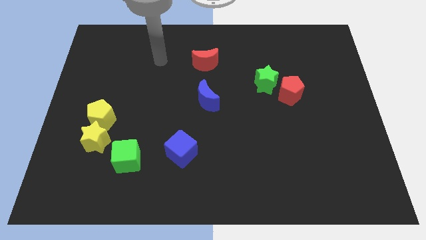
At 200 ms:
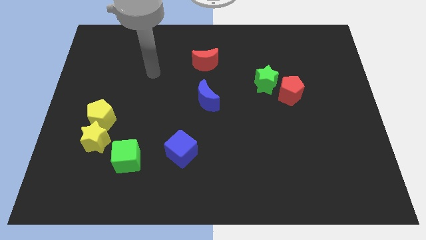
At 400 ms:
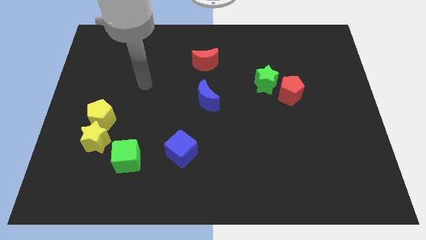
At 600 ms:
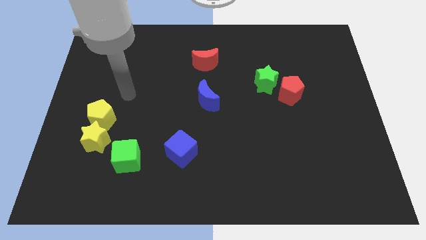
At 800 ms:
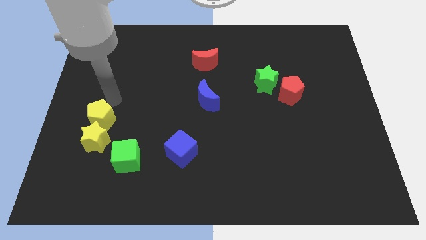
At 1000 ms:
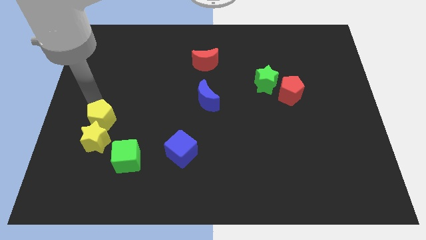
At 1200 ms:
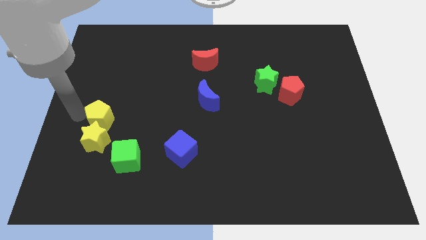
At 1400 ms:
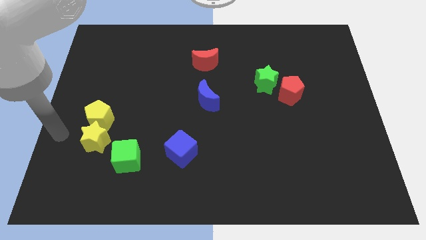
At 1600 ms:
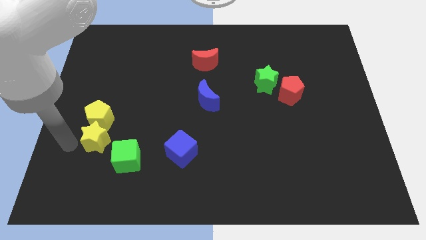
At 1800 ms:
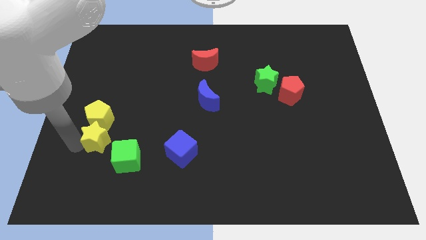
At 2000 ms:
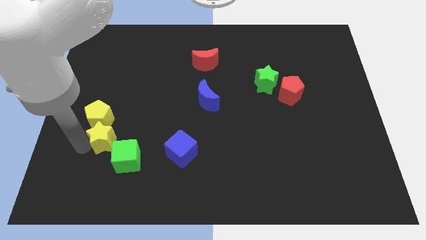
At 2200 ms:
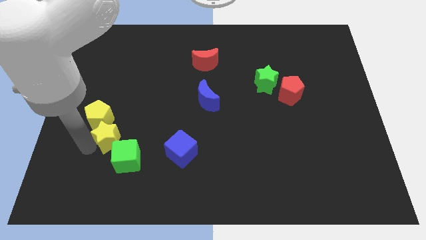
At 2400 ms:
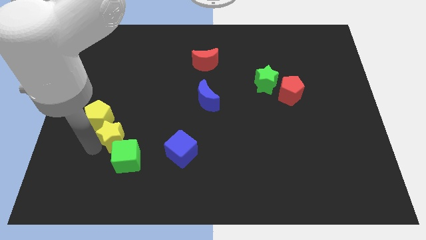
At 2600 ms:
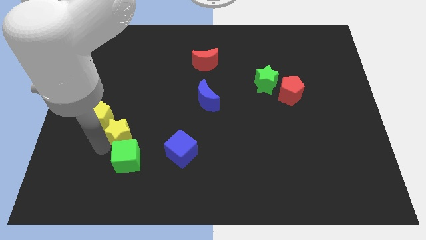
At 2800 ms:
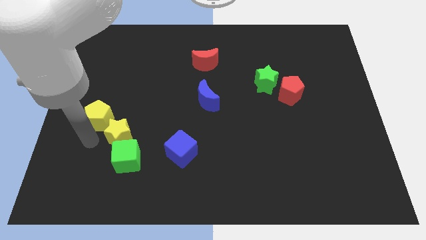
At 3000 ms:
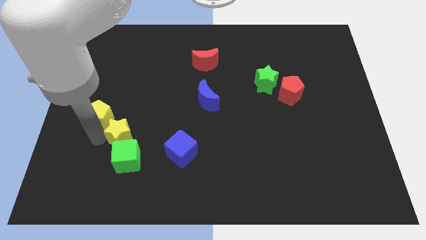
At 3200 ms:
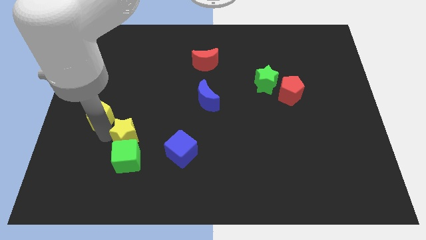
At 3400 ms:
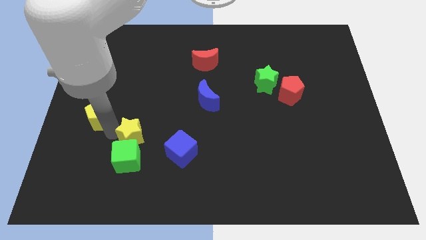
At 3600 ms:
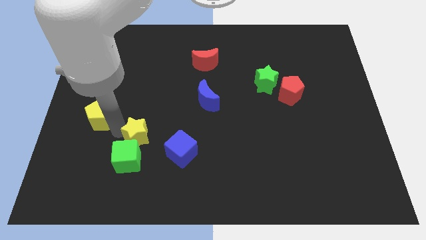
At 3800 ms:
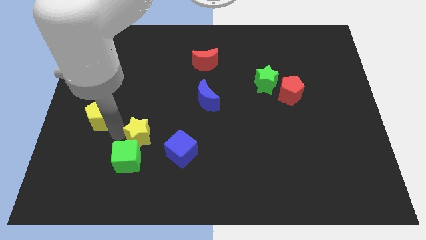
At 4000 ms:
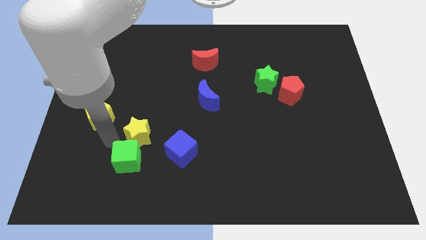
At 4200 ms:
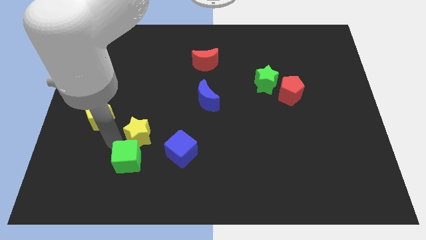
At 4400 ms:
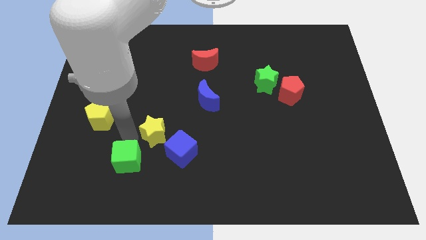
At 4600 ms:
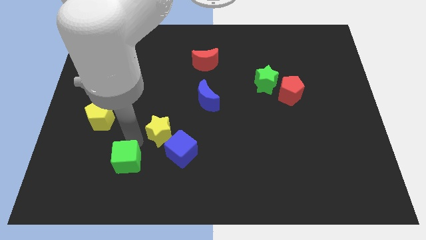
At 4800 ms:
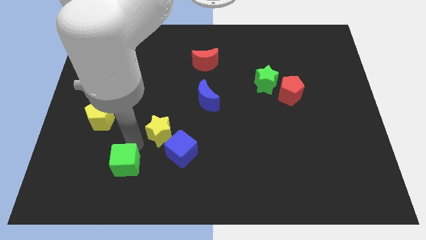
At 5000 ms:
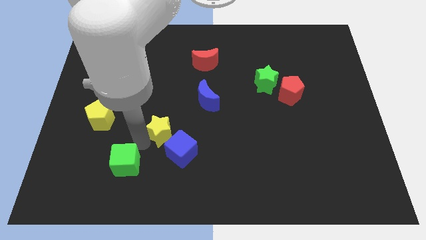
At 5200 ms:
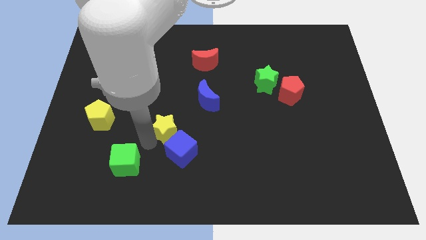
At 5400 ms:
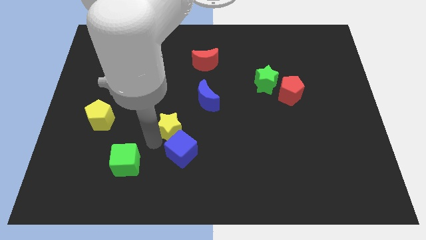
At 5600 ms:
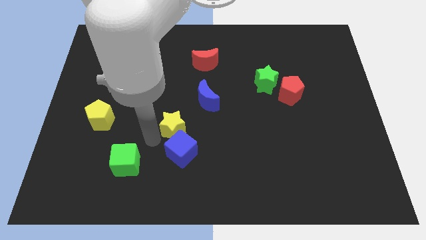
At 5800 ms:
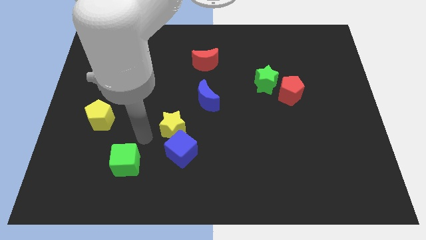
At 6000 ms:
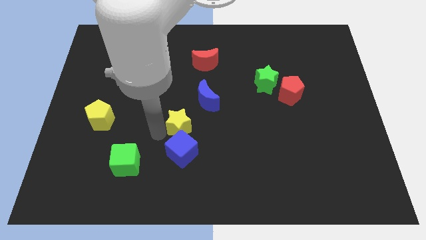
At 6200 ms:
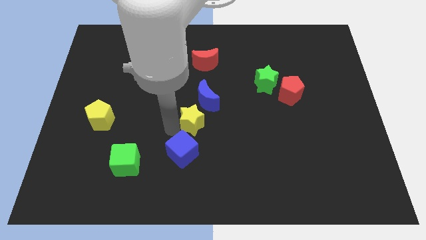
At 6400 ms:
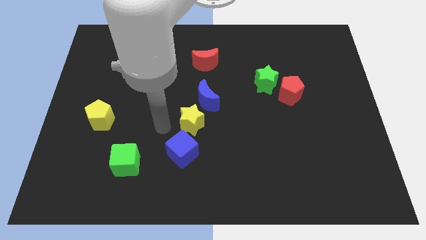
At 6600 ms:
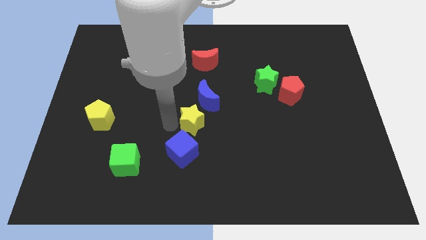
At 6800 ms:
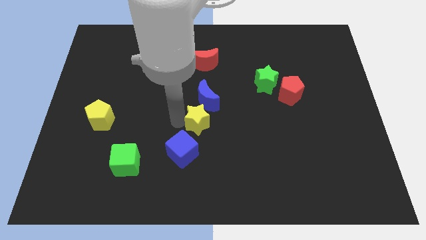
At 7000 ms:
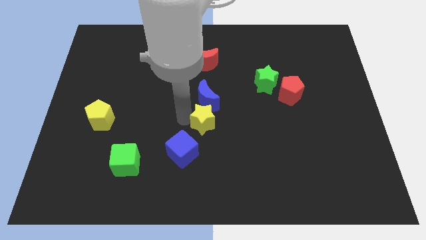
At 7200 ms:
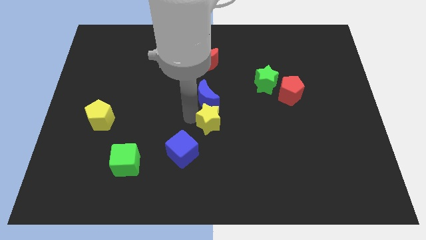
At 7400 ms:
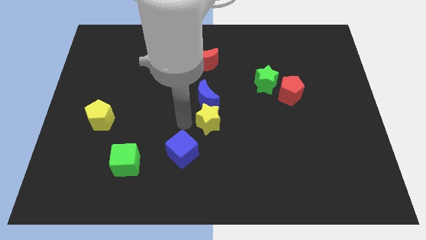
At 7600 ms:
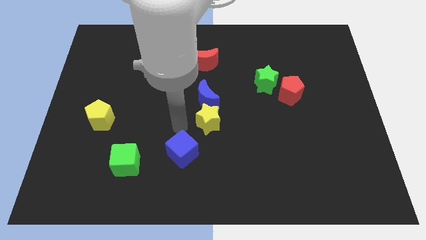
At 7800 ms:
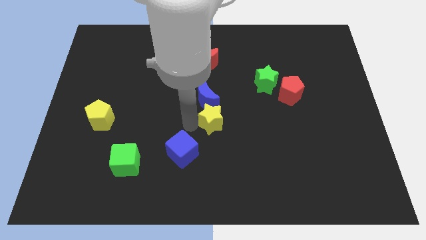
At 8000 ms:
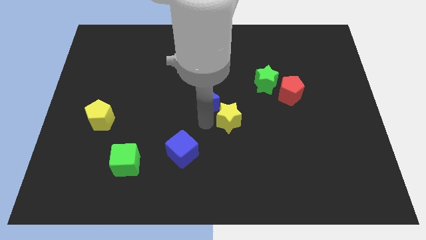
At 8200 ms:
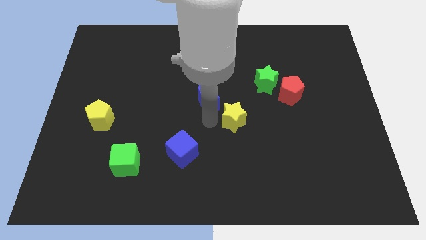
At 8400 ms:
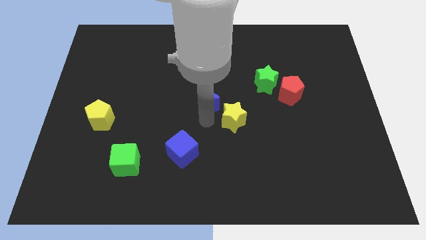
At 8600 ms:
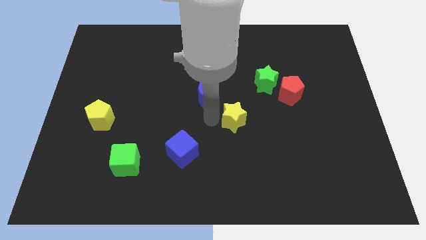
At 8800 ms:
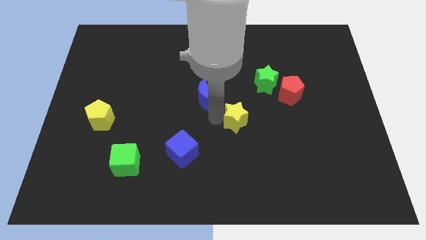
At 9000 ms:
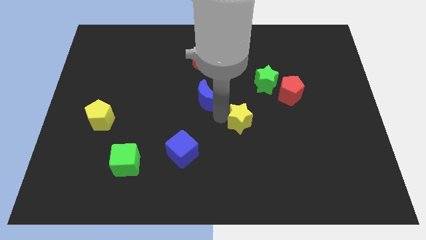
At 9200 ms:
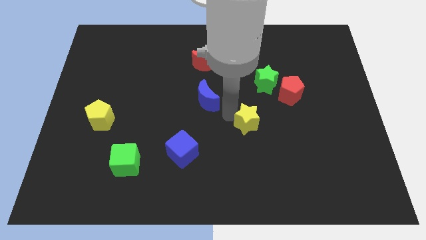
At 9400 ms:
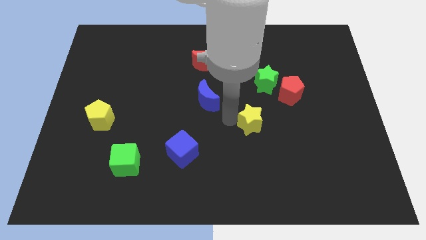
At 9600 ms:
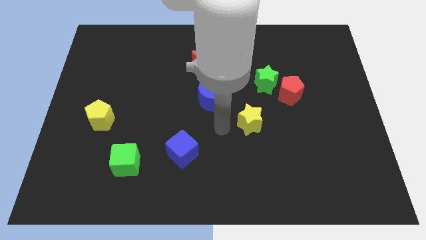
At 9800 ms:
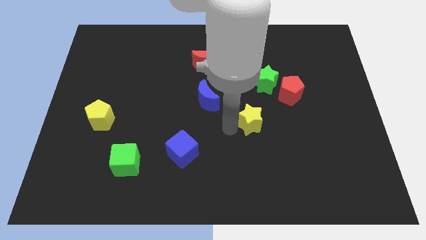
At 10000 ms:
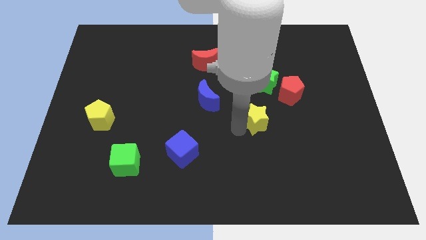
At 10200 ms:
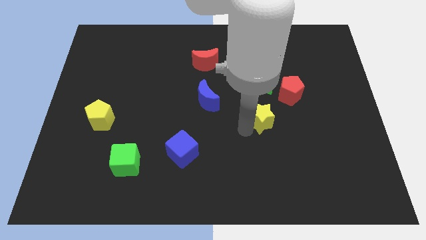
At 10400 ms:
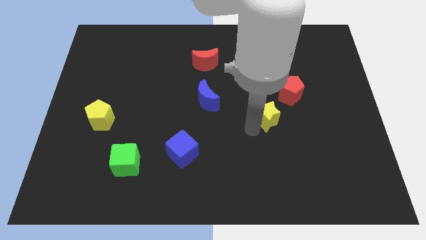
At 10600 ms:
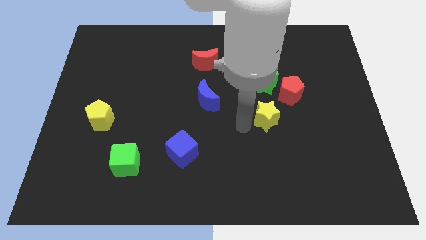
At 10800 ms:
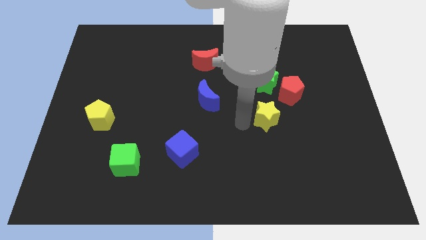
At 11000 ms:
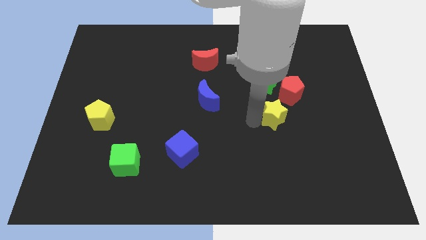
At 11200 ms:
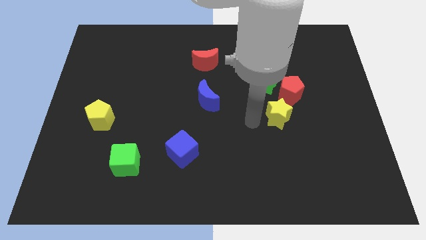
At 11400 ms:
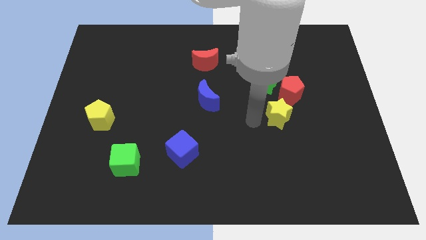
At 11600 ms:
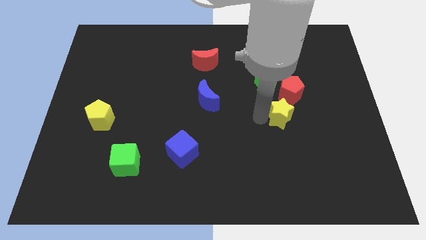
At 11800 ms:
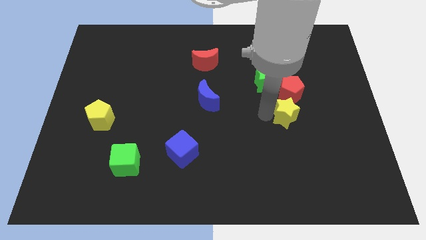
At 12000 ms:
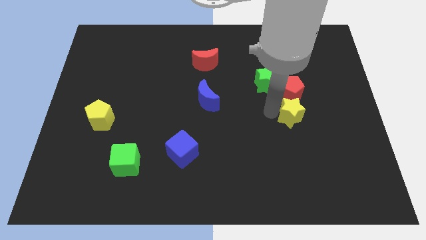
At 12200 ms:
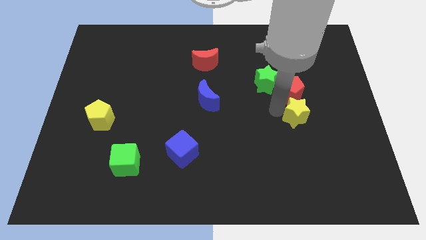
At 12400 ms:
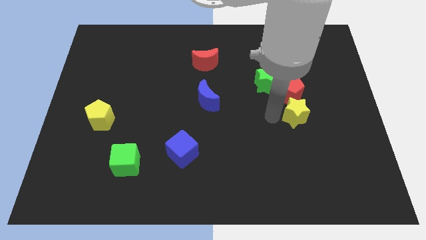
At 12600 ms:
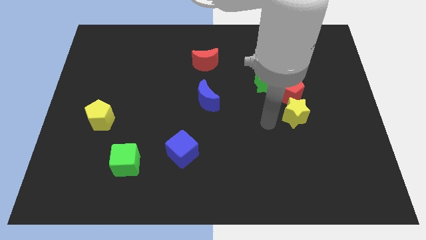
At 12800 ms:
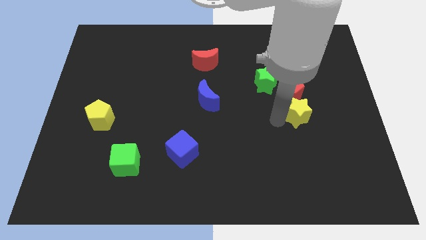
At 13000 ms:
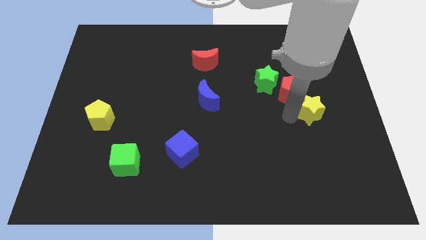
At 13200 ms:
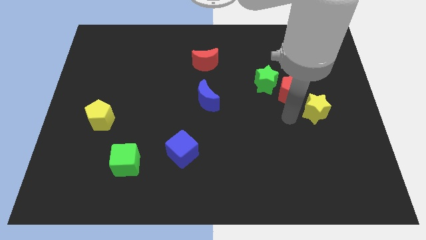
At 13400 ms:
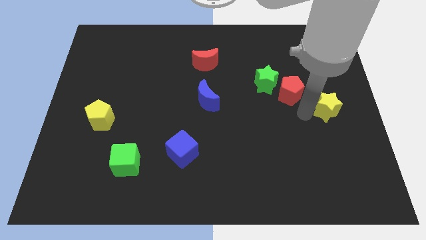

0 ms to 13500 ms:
move the yellow star to the right side of the board

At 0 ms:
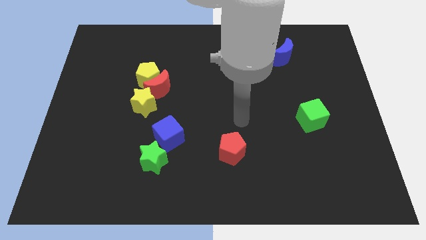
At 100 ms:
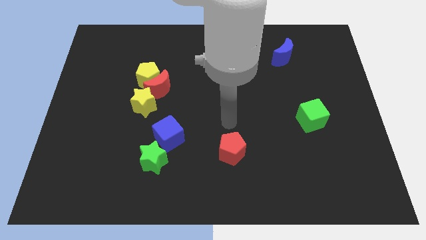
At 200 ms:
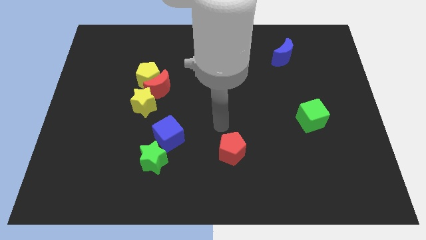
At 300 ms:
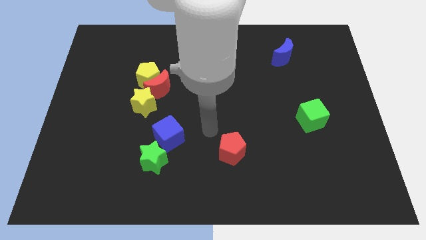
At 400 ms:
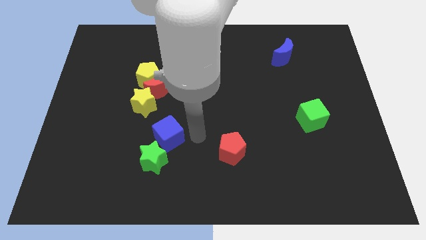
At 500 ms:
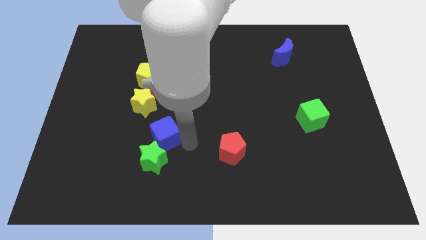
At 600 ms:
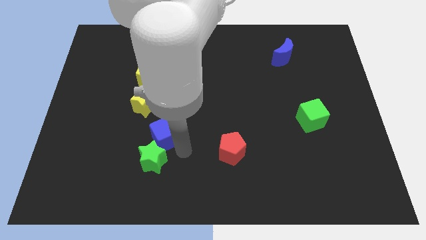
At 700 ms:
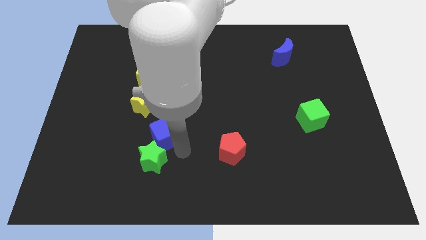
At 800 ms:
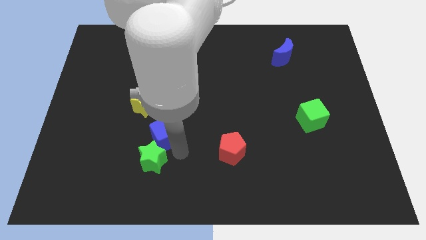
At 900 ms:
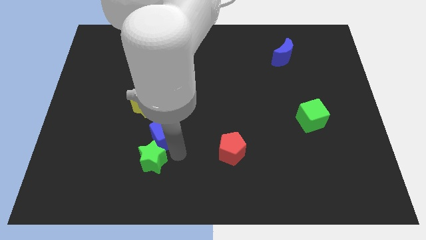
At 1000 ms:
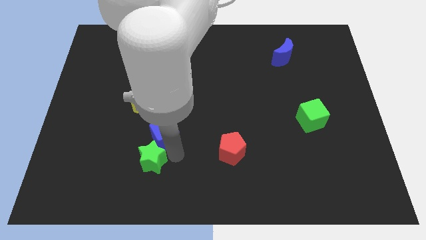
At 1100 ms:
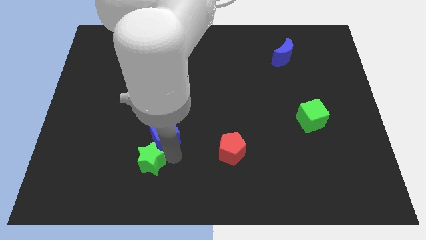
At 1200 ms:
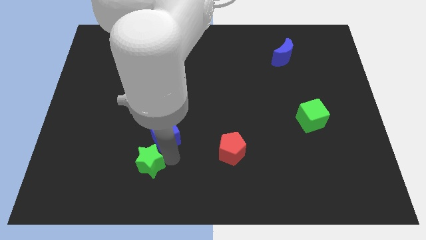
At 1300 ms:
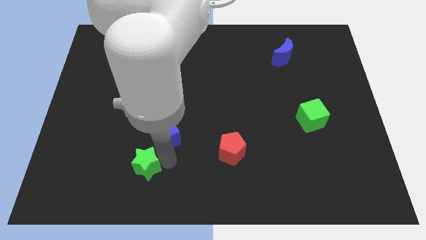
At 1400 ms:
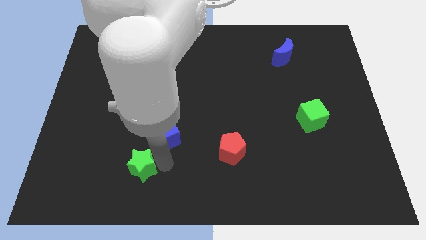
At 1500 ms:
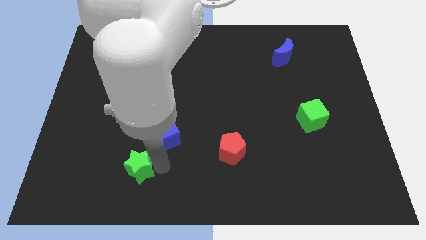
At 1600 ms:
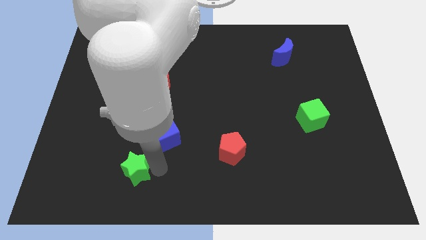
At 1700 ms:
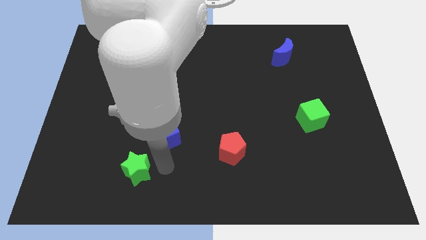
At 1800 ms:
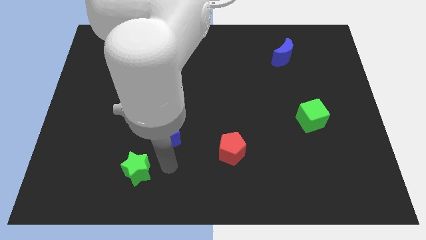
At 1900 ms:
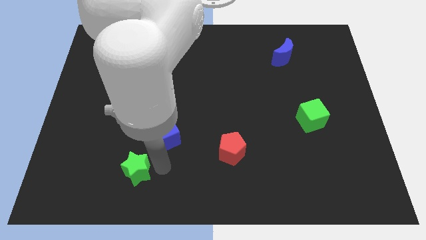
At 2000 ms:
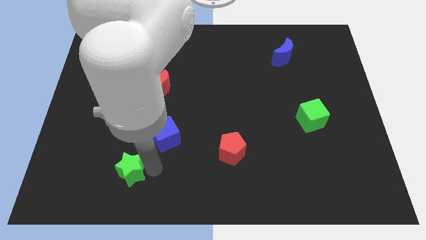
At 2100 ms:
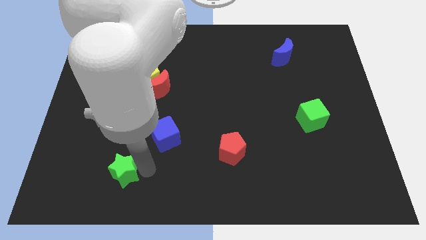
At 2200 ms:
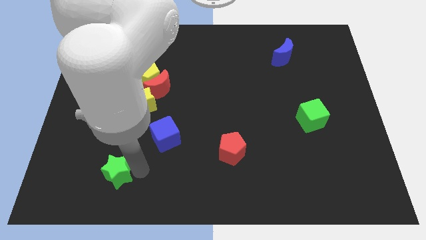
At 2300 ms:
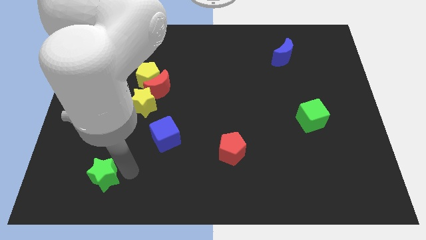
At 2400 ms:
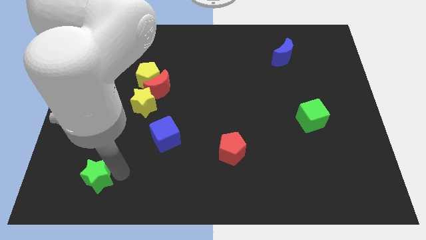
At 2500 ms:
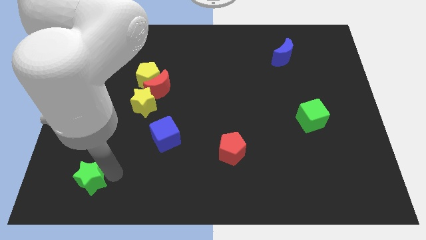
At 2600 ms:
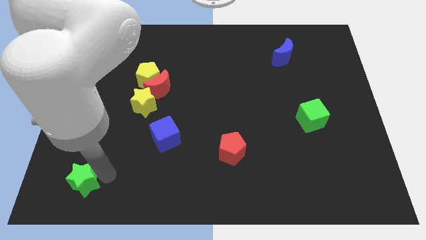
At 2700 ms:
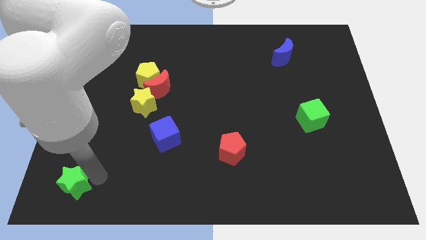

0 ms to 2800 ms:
push the green star to the bottom left
